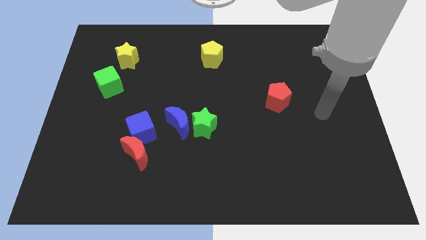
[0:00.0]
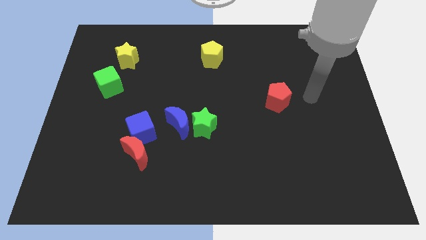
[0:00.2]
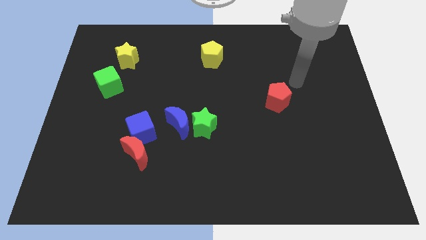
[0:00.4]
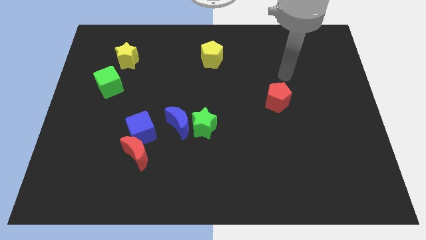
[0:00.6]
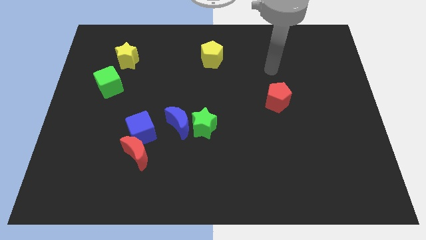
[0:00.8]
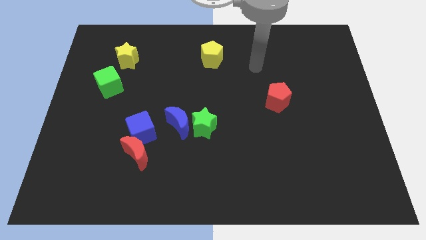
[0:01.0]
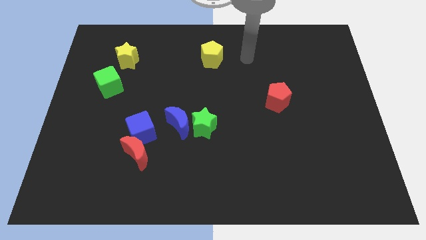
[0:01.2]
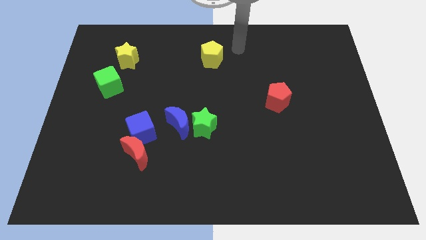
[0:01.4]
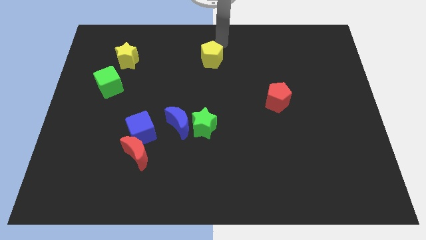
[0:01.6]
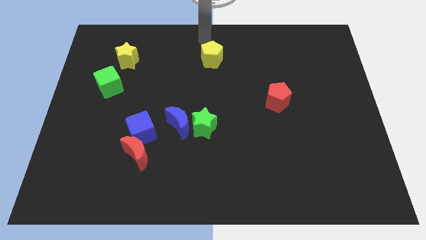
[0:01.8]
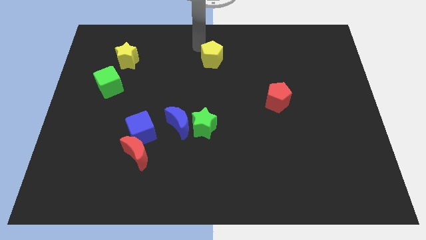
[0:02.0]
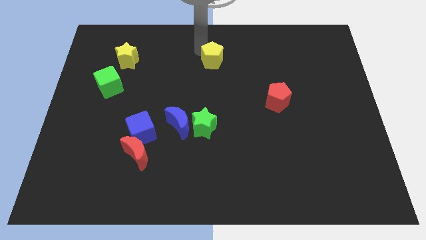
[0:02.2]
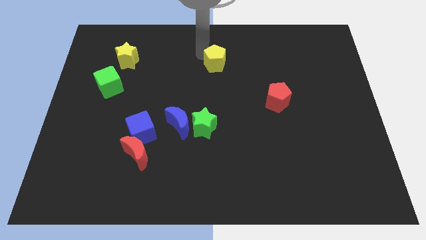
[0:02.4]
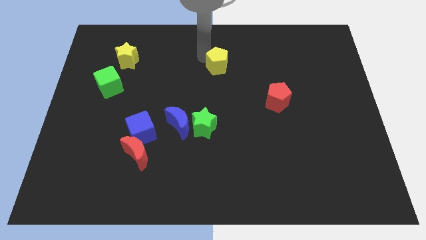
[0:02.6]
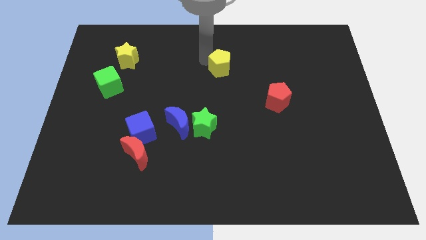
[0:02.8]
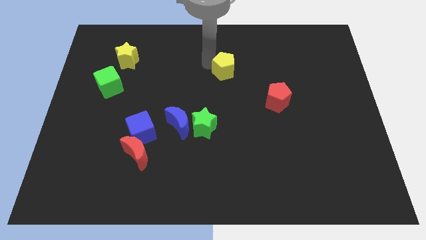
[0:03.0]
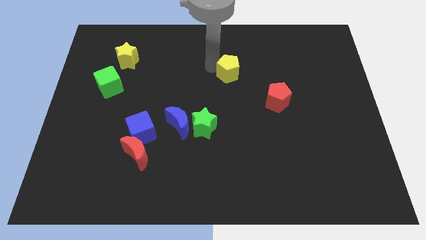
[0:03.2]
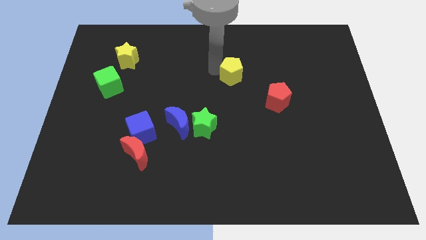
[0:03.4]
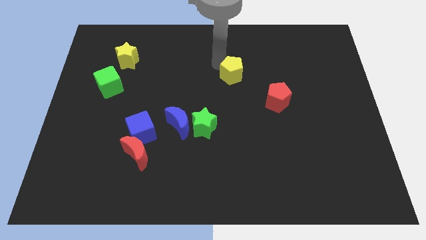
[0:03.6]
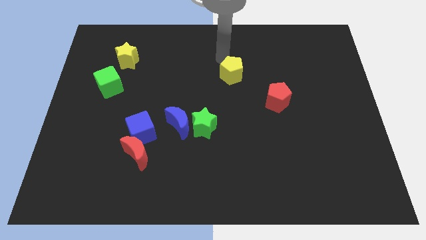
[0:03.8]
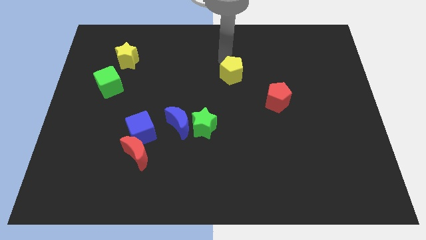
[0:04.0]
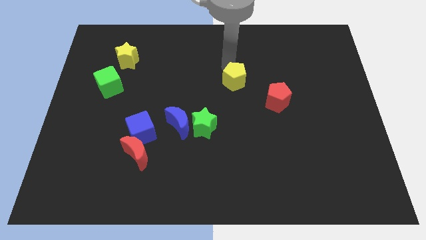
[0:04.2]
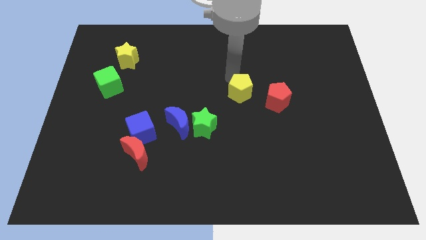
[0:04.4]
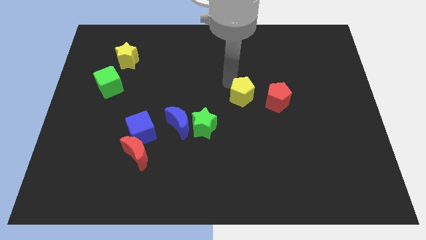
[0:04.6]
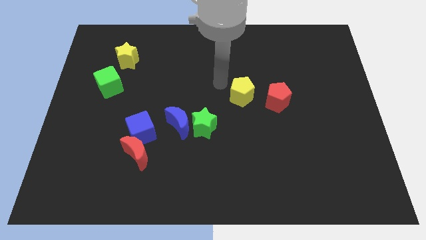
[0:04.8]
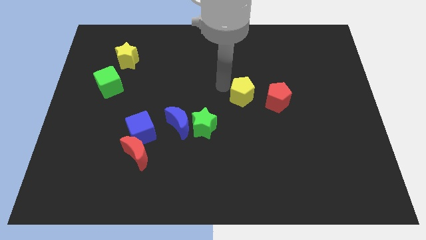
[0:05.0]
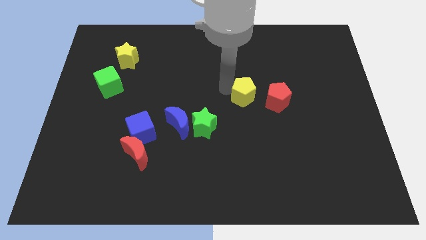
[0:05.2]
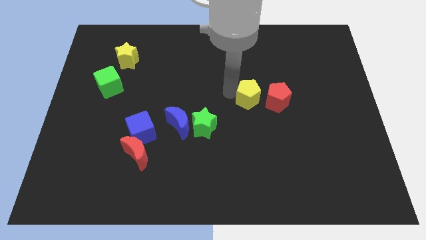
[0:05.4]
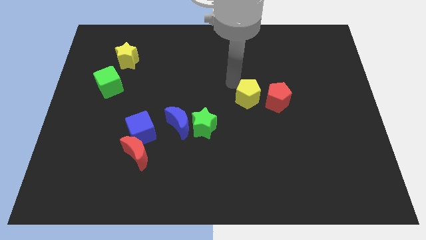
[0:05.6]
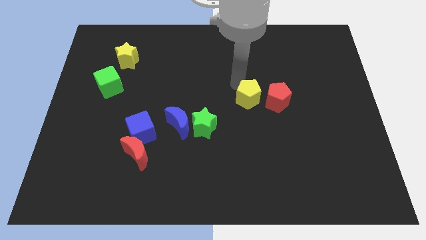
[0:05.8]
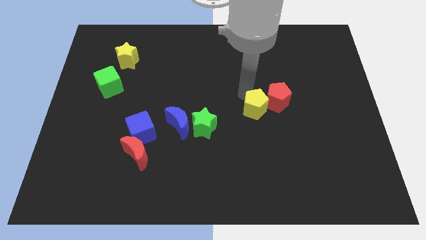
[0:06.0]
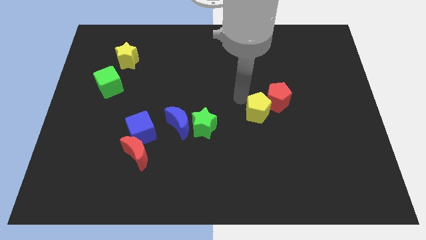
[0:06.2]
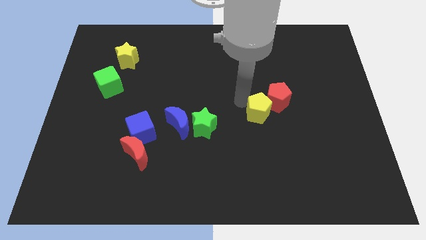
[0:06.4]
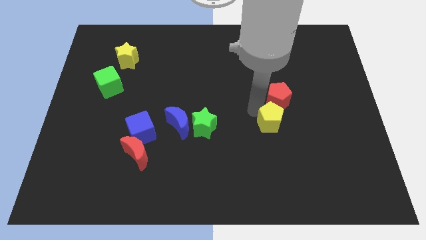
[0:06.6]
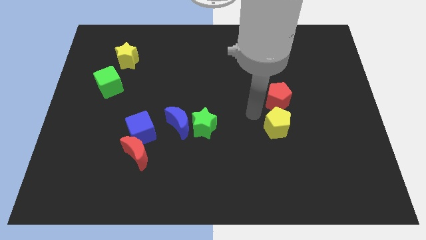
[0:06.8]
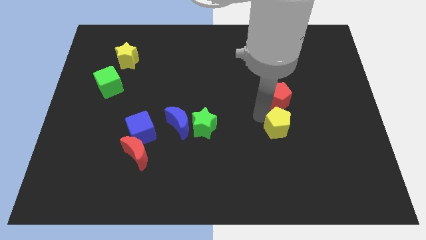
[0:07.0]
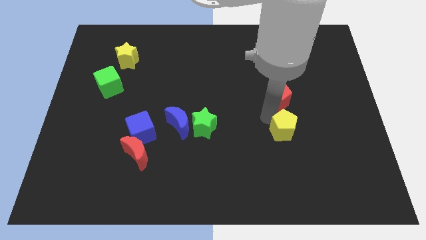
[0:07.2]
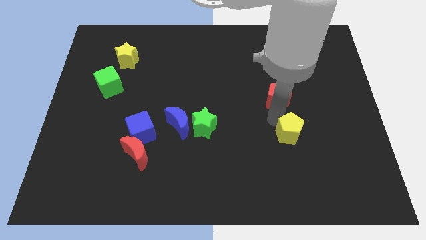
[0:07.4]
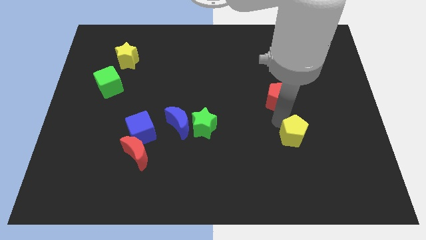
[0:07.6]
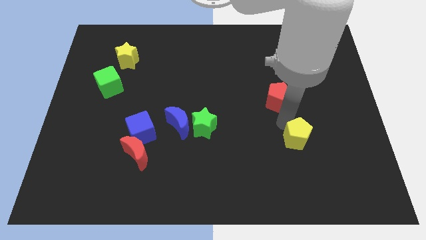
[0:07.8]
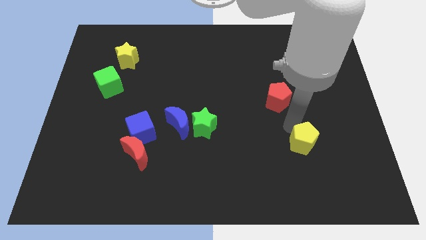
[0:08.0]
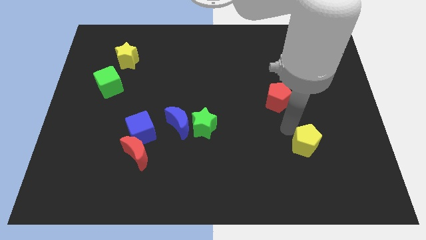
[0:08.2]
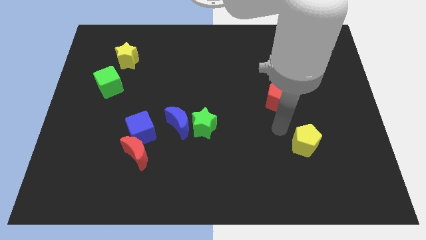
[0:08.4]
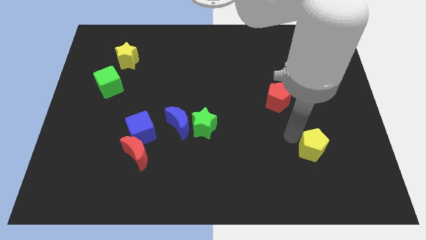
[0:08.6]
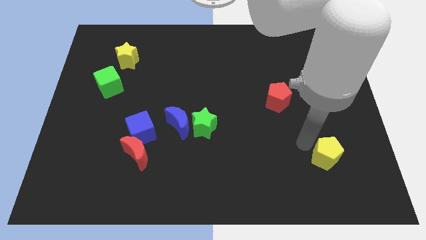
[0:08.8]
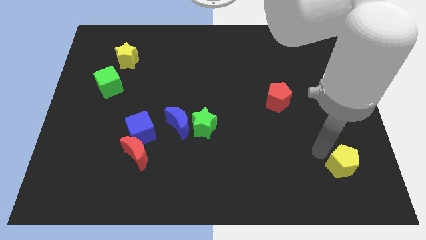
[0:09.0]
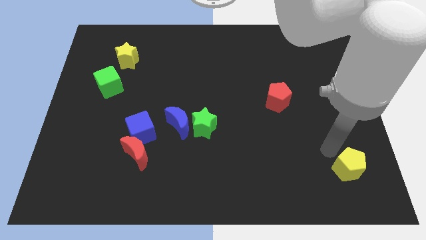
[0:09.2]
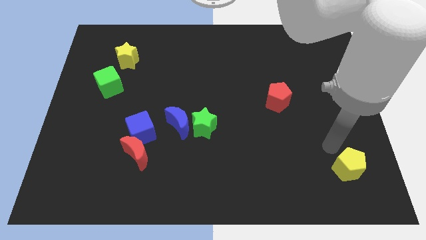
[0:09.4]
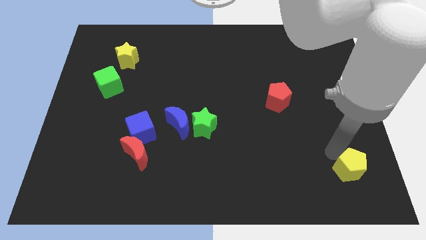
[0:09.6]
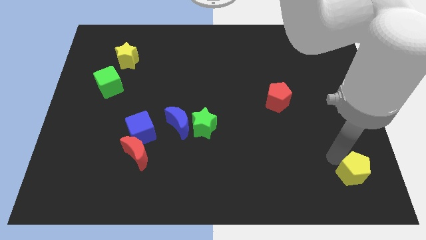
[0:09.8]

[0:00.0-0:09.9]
slide the yellow pentagon to the bottom right of the board
